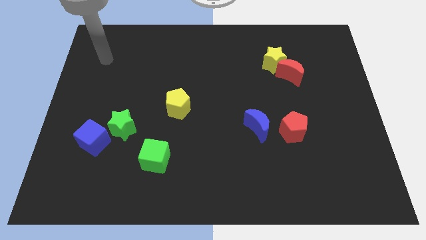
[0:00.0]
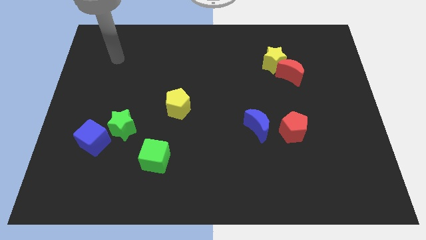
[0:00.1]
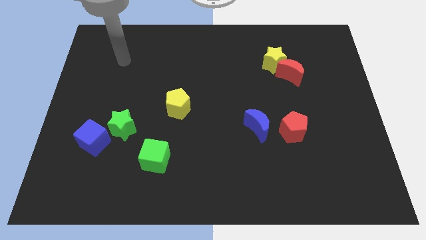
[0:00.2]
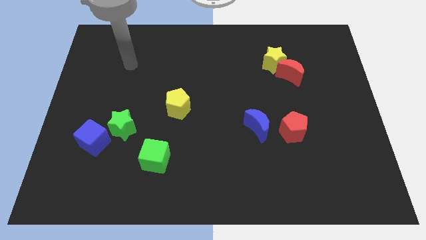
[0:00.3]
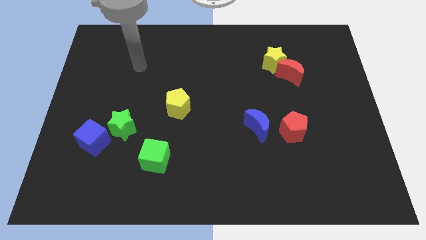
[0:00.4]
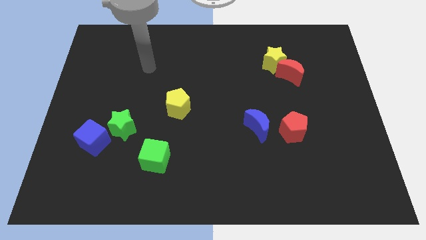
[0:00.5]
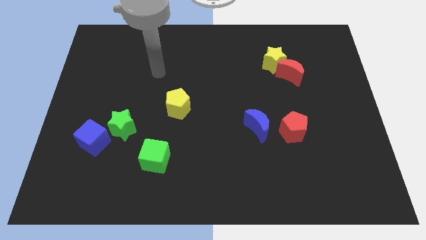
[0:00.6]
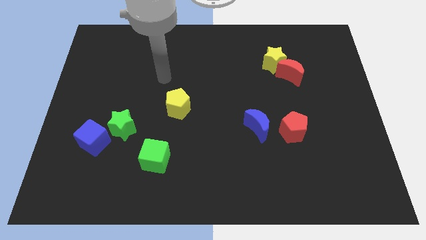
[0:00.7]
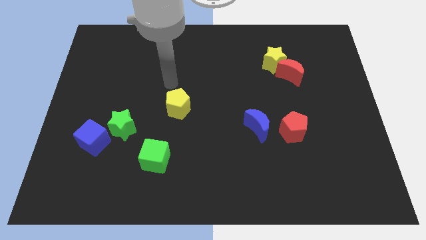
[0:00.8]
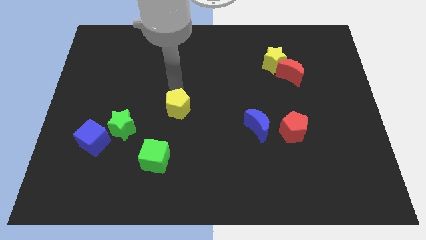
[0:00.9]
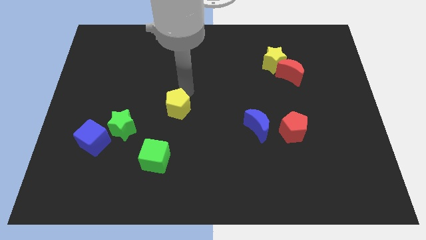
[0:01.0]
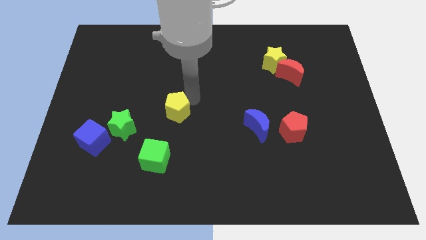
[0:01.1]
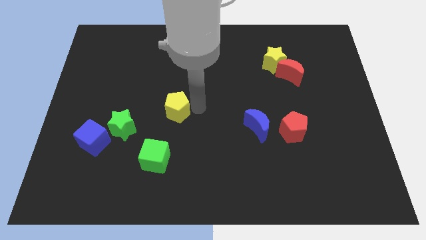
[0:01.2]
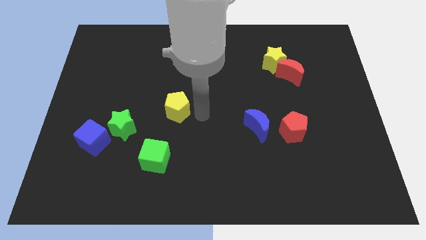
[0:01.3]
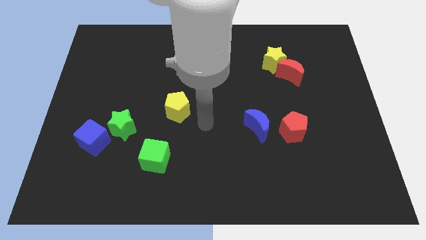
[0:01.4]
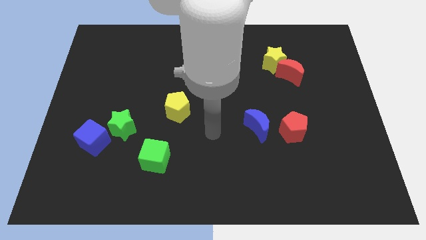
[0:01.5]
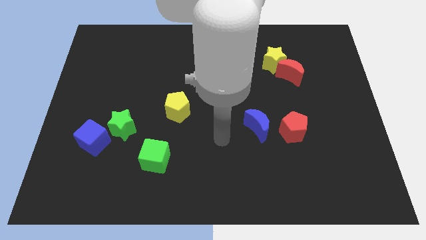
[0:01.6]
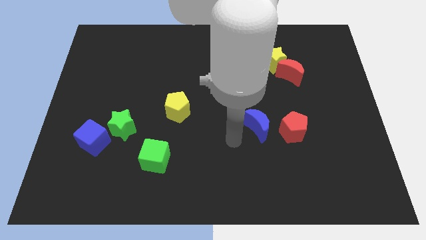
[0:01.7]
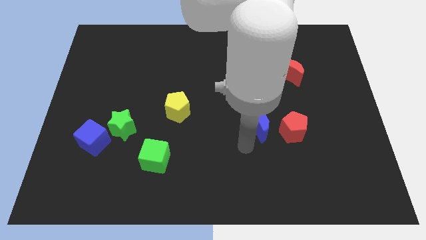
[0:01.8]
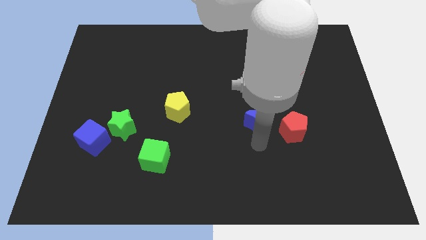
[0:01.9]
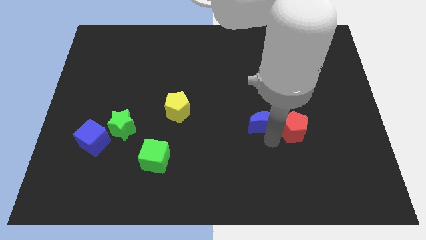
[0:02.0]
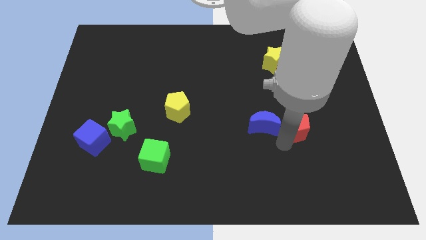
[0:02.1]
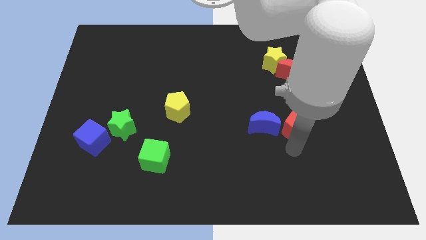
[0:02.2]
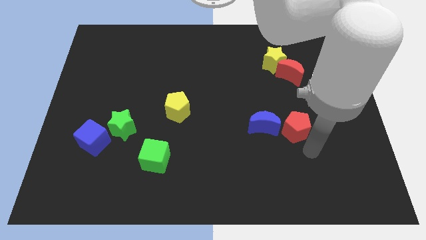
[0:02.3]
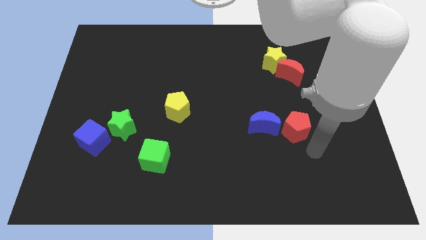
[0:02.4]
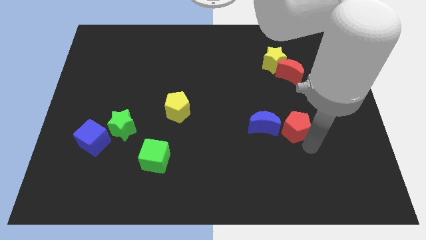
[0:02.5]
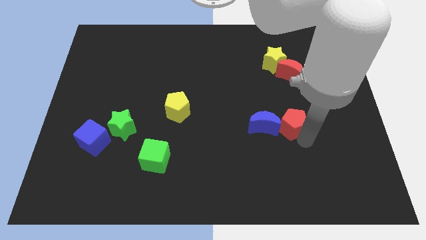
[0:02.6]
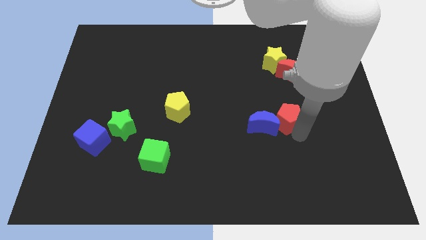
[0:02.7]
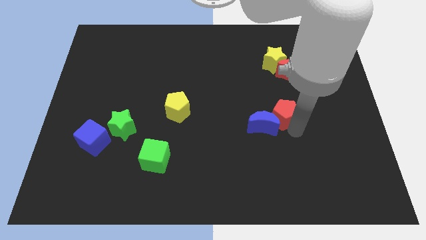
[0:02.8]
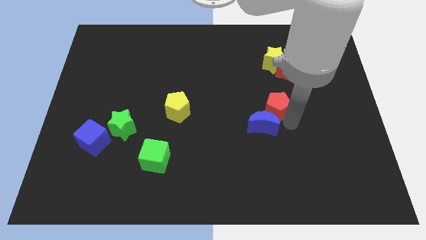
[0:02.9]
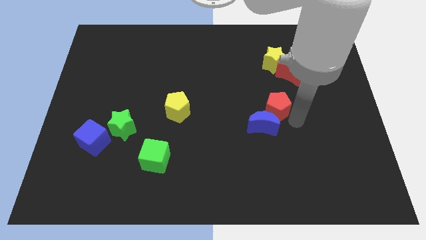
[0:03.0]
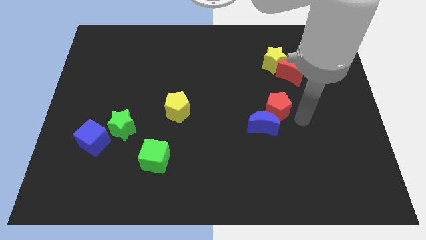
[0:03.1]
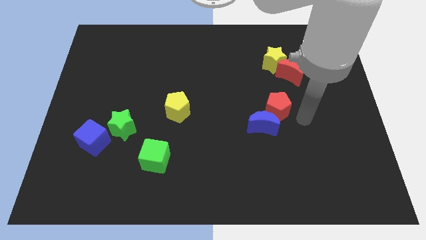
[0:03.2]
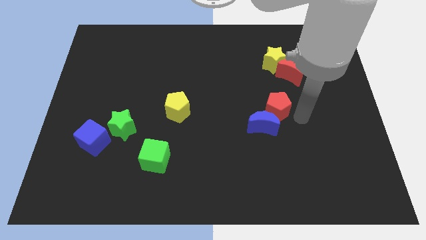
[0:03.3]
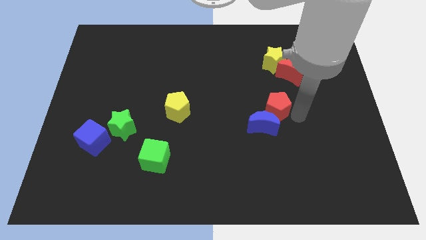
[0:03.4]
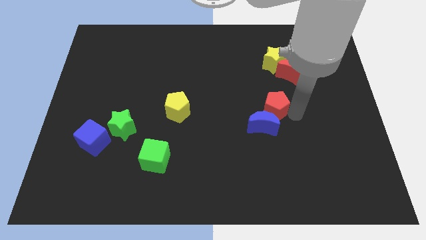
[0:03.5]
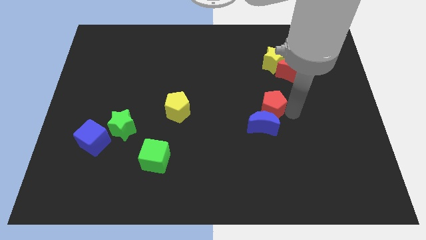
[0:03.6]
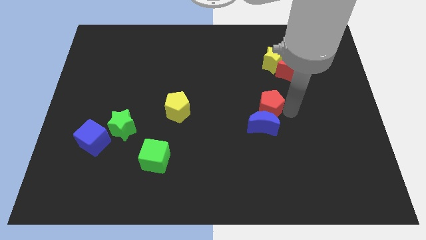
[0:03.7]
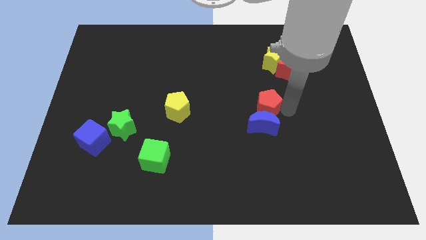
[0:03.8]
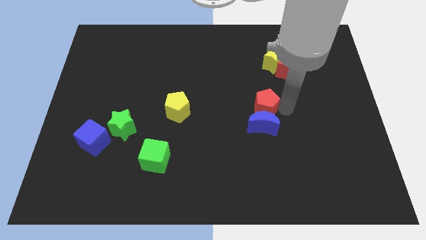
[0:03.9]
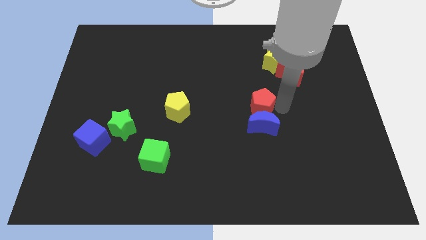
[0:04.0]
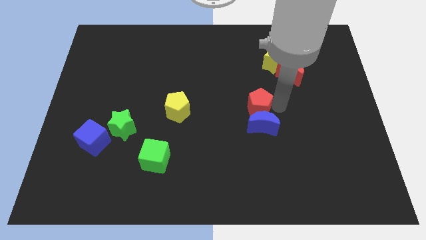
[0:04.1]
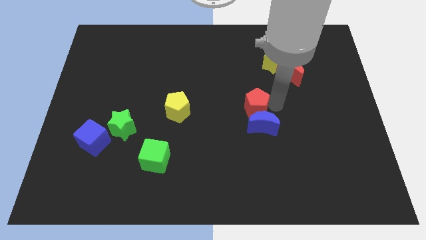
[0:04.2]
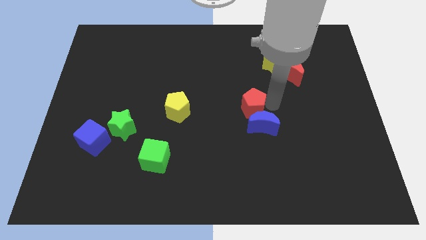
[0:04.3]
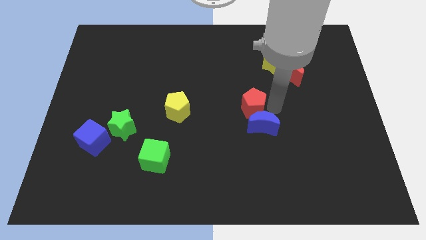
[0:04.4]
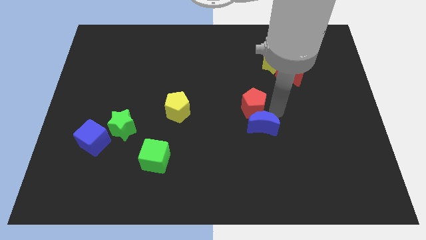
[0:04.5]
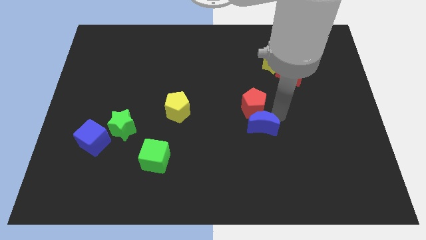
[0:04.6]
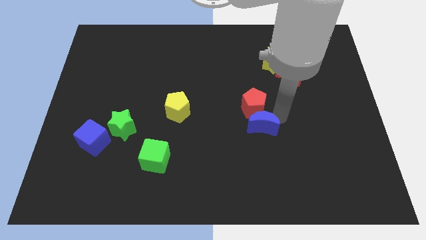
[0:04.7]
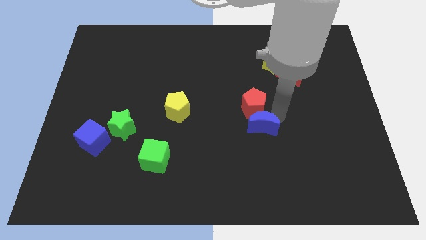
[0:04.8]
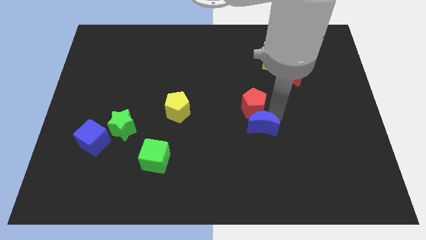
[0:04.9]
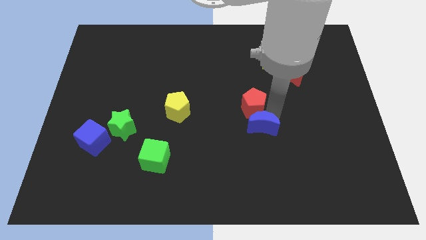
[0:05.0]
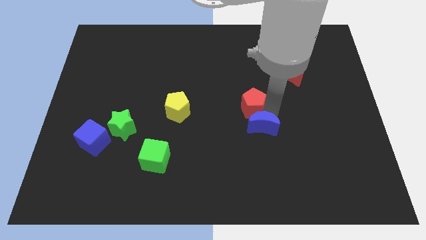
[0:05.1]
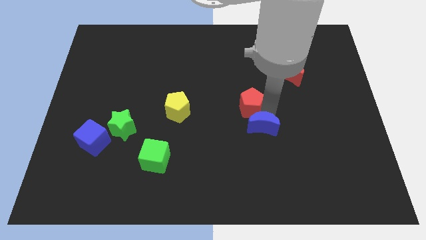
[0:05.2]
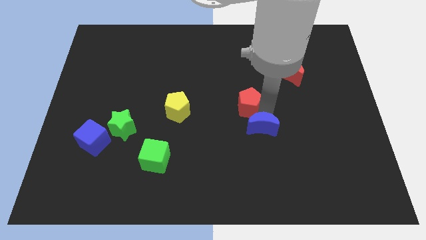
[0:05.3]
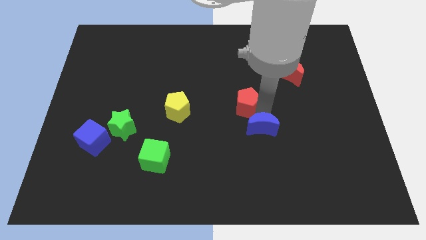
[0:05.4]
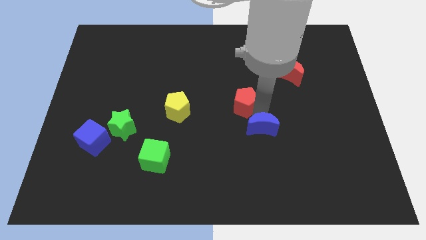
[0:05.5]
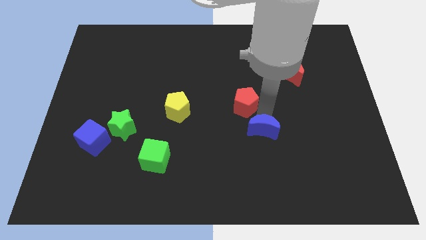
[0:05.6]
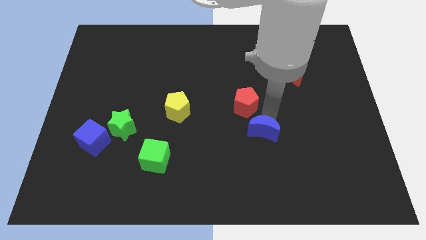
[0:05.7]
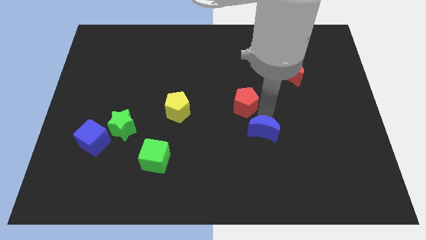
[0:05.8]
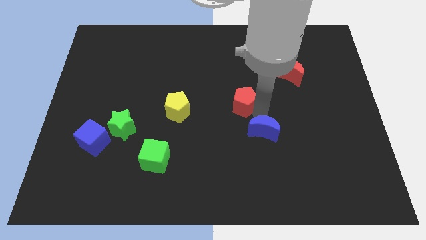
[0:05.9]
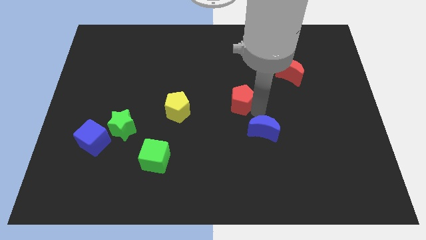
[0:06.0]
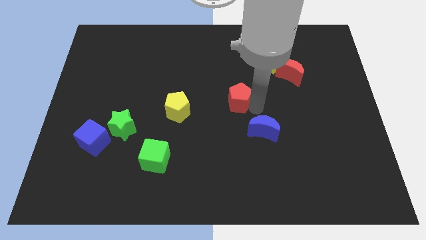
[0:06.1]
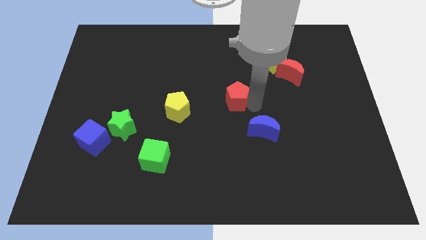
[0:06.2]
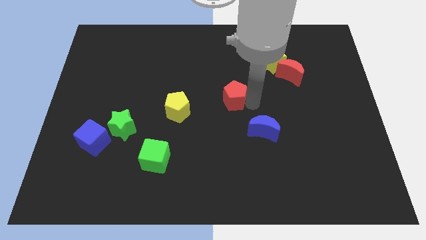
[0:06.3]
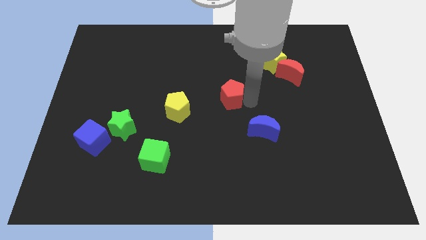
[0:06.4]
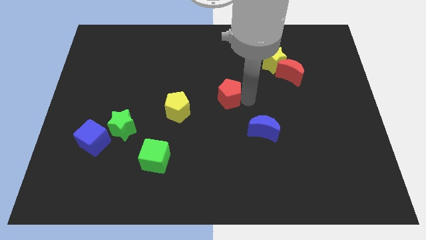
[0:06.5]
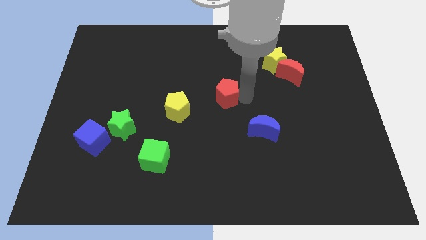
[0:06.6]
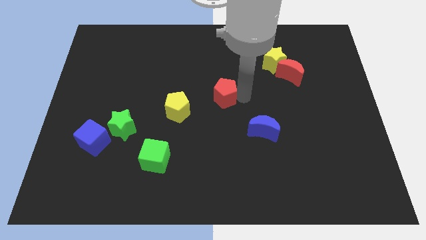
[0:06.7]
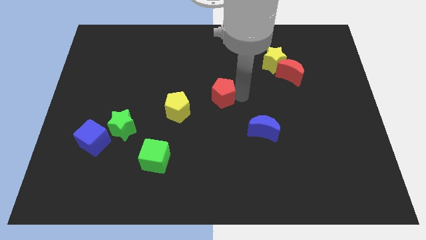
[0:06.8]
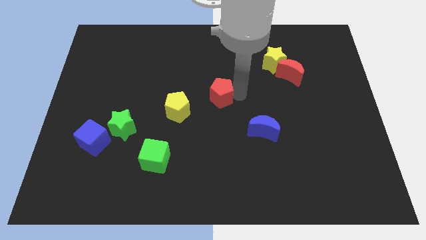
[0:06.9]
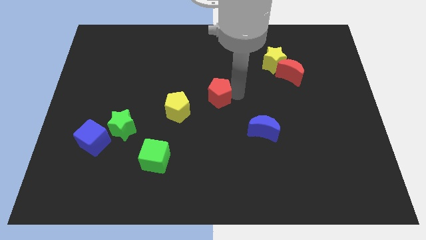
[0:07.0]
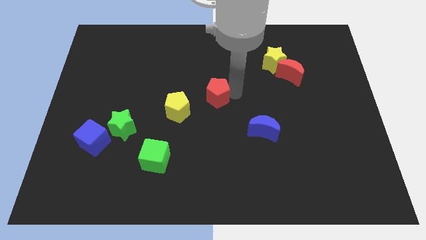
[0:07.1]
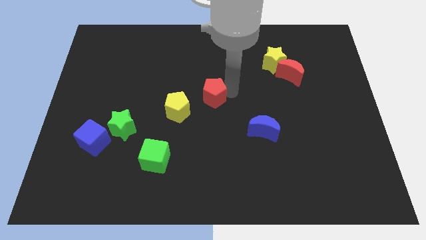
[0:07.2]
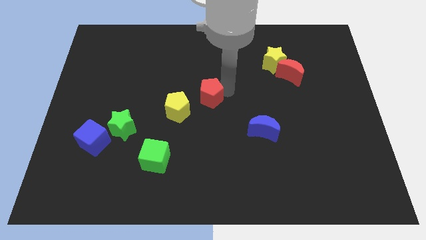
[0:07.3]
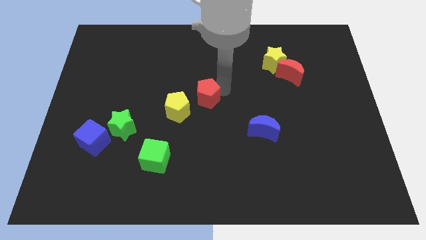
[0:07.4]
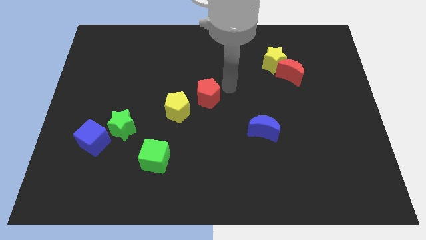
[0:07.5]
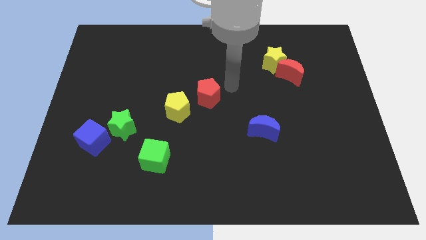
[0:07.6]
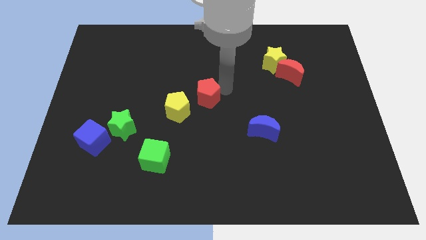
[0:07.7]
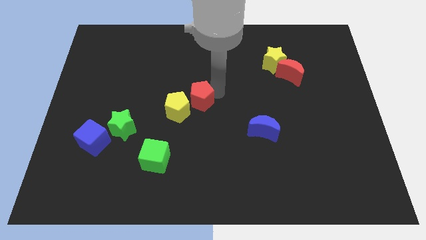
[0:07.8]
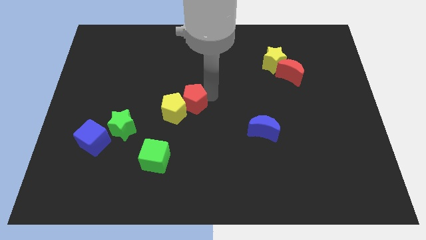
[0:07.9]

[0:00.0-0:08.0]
put the red pentagon next to the yellow pentagon
